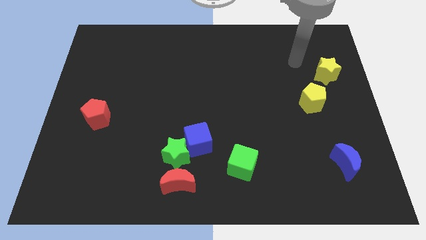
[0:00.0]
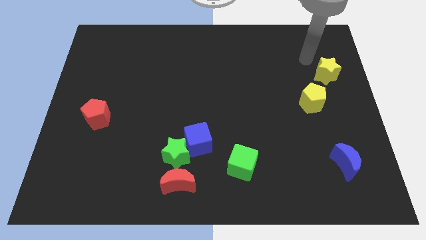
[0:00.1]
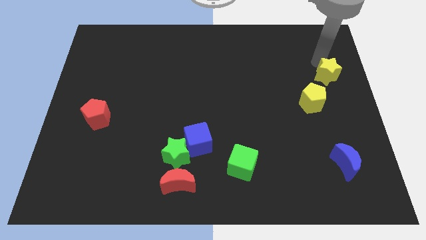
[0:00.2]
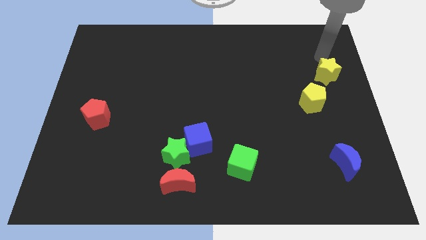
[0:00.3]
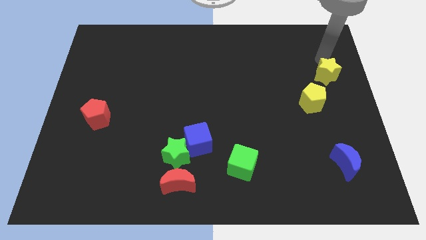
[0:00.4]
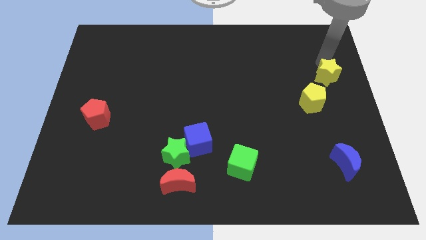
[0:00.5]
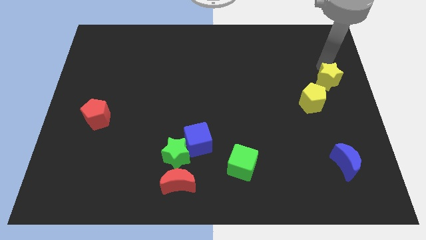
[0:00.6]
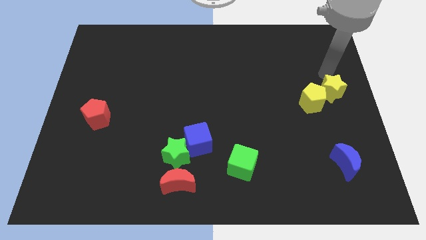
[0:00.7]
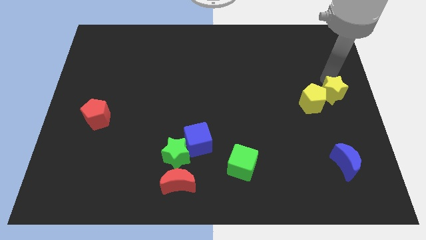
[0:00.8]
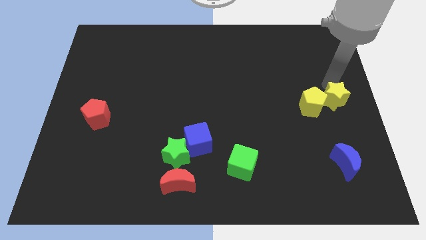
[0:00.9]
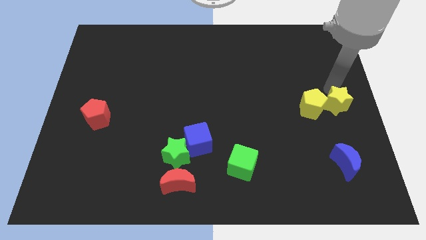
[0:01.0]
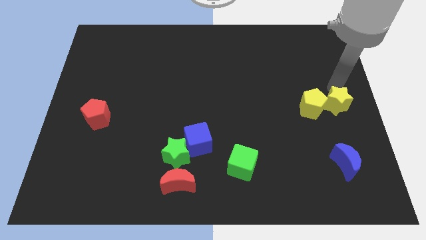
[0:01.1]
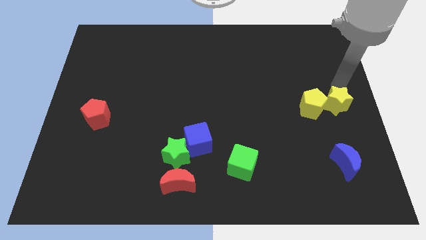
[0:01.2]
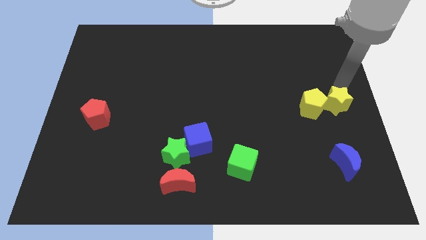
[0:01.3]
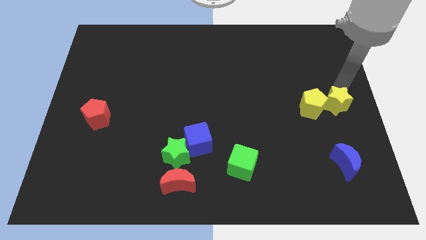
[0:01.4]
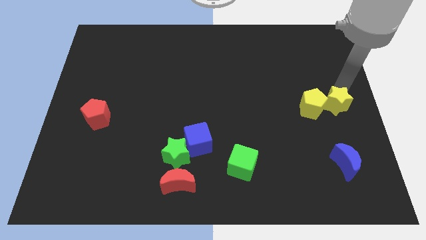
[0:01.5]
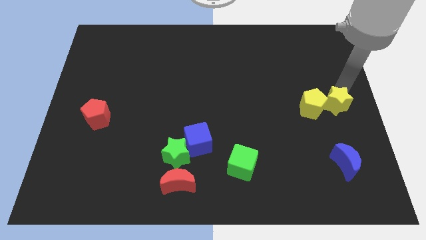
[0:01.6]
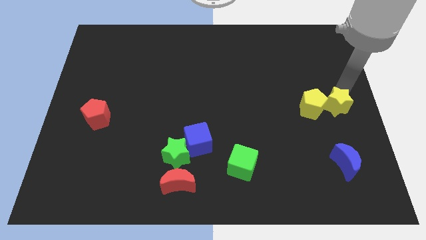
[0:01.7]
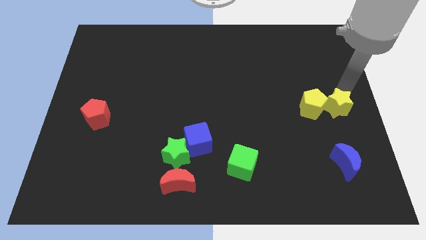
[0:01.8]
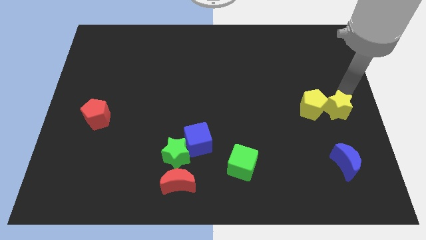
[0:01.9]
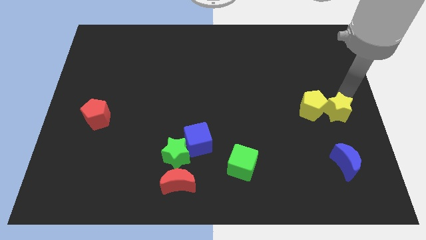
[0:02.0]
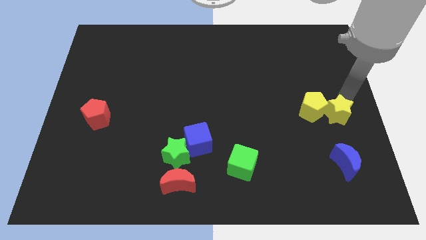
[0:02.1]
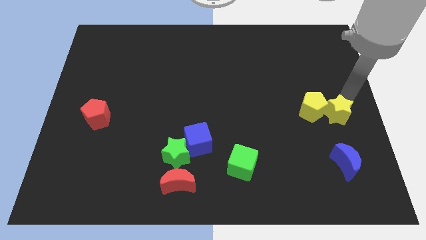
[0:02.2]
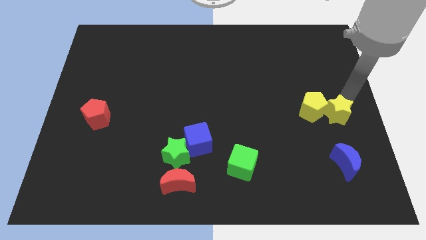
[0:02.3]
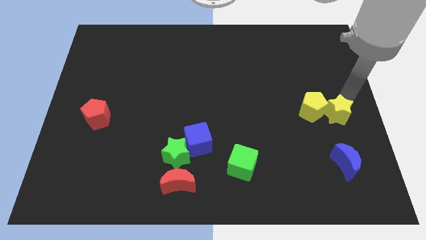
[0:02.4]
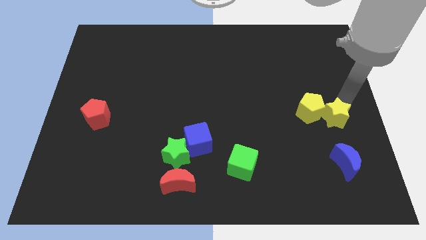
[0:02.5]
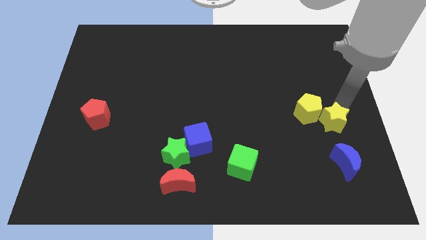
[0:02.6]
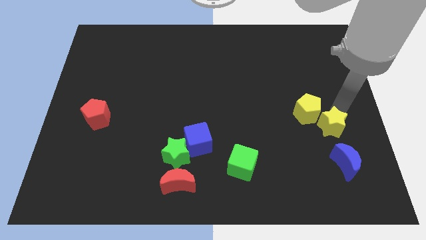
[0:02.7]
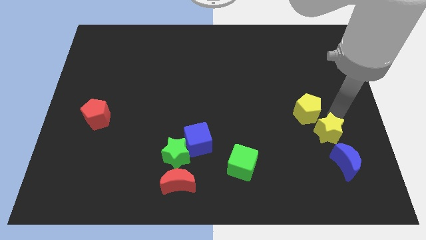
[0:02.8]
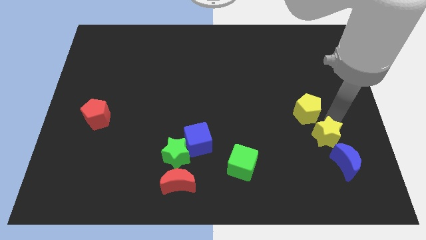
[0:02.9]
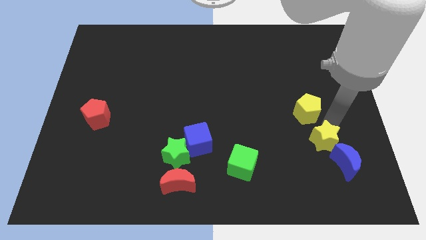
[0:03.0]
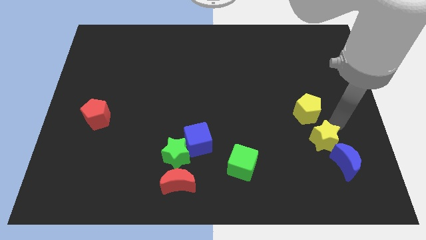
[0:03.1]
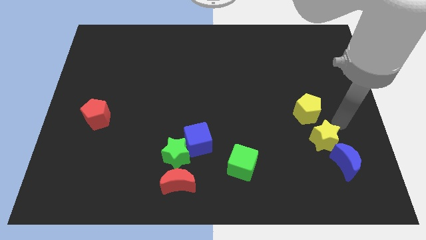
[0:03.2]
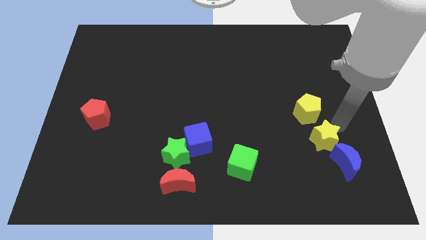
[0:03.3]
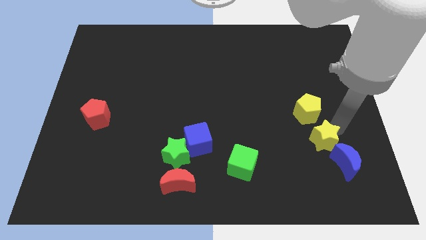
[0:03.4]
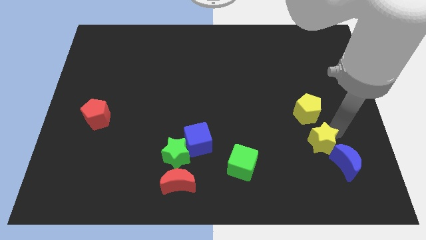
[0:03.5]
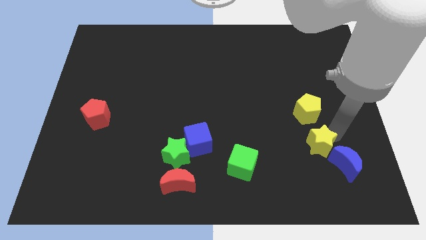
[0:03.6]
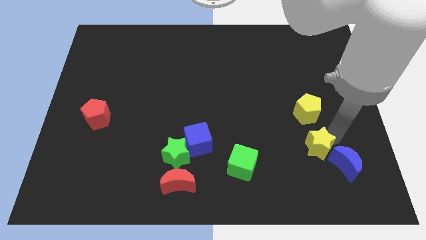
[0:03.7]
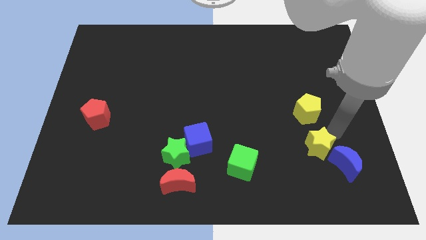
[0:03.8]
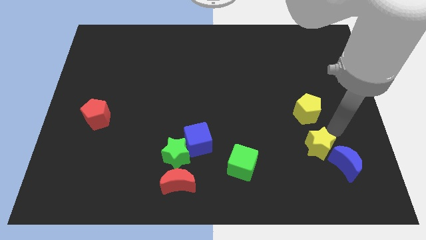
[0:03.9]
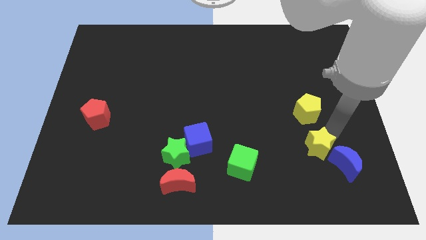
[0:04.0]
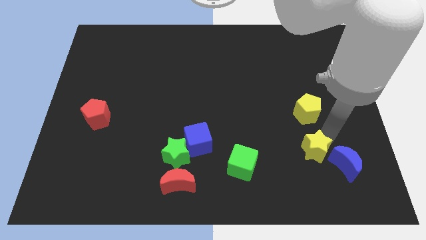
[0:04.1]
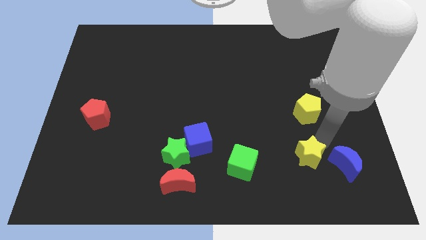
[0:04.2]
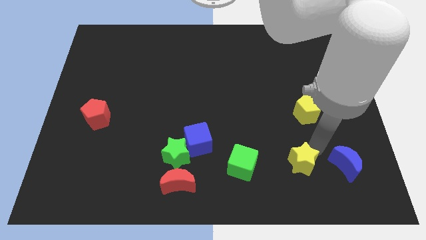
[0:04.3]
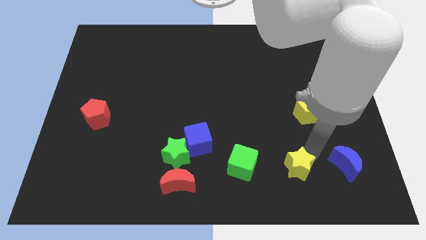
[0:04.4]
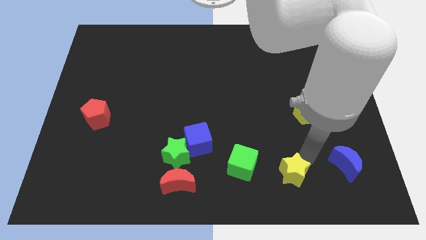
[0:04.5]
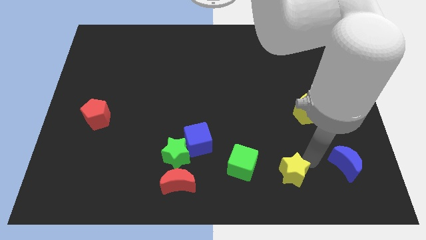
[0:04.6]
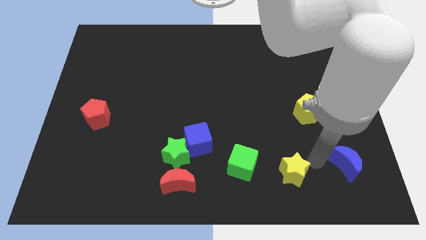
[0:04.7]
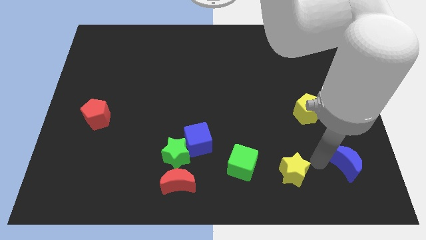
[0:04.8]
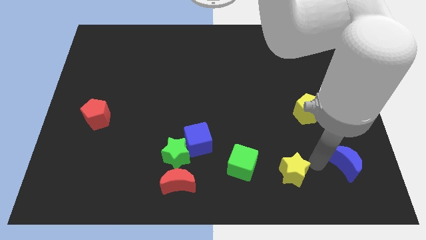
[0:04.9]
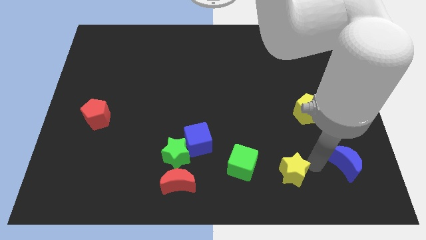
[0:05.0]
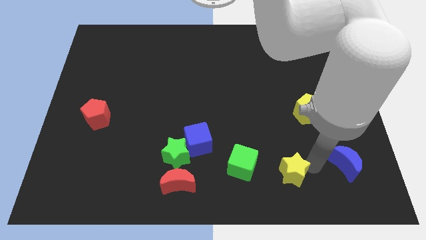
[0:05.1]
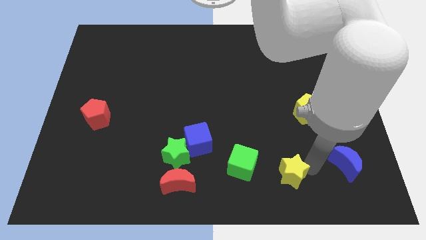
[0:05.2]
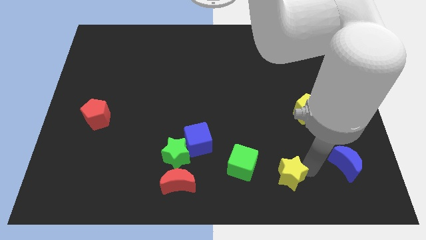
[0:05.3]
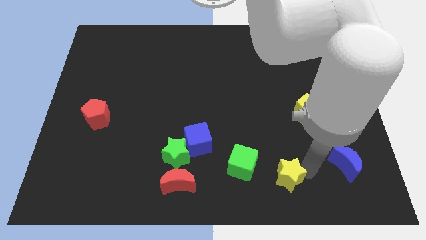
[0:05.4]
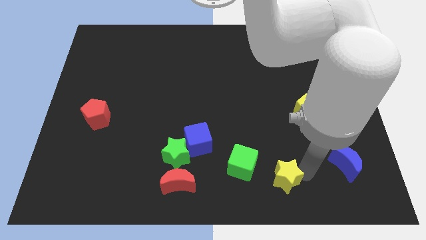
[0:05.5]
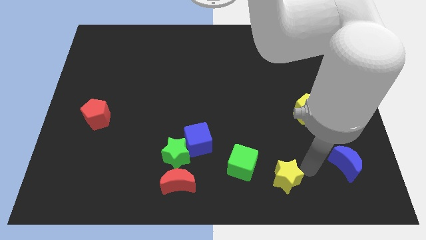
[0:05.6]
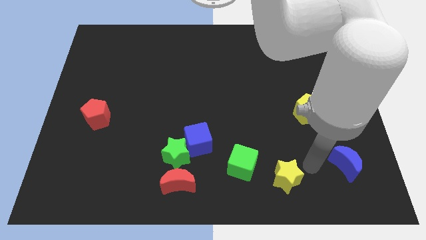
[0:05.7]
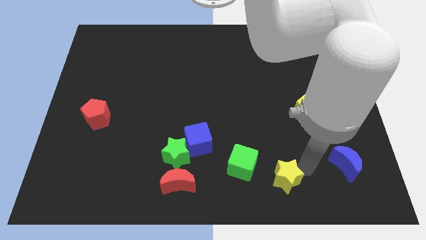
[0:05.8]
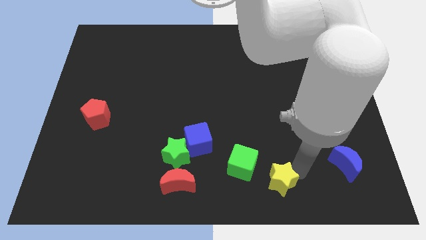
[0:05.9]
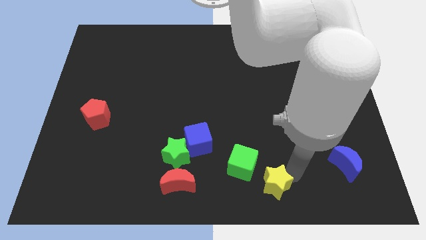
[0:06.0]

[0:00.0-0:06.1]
put the yellow star to the bottom side

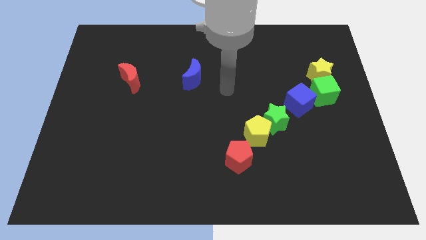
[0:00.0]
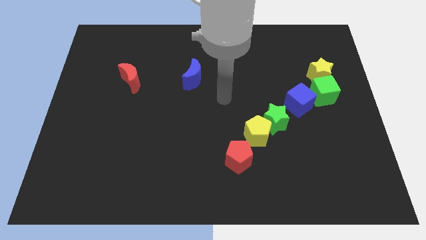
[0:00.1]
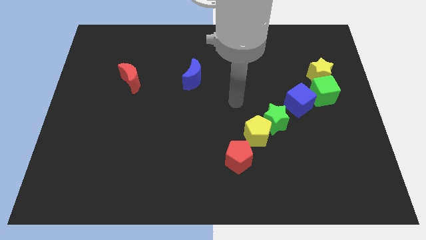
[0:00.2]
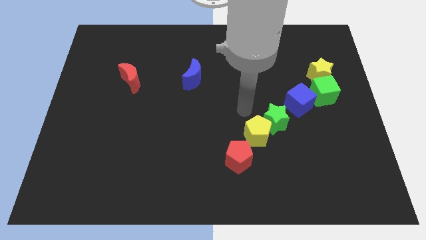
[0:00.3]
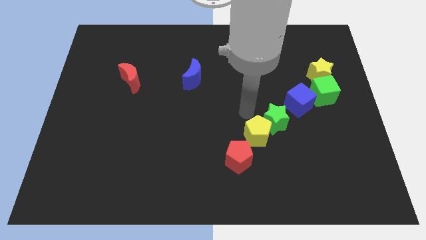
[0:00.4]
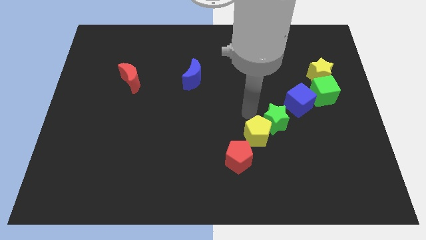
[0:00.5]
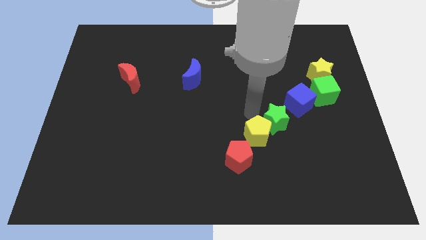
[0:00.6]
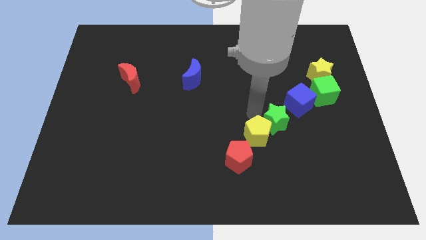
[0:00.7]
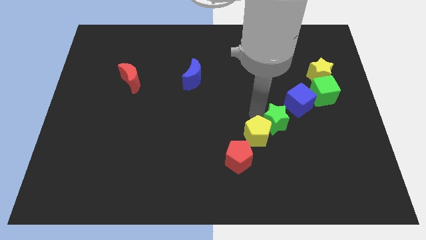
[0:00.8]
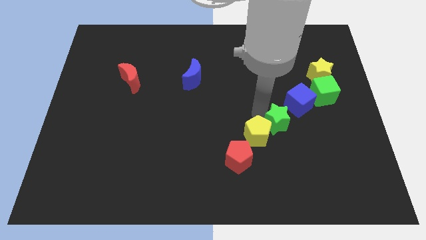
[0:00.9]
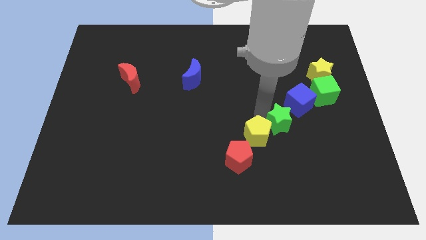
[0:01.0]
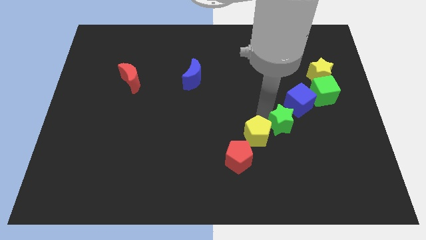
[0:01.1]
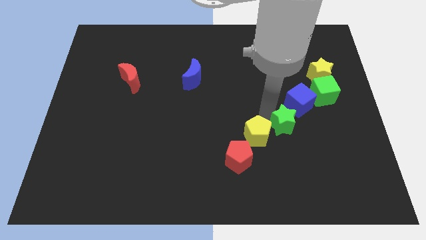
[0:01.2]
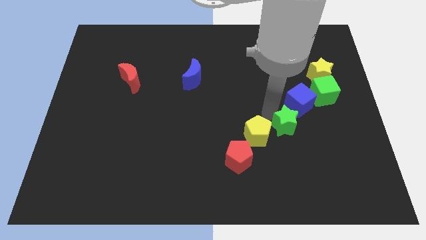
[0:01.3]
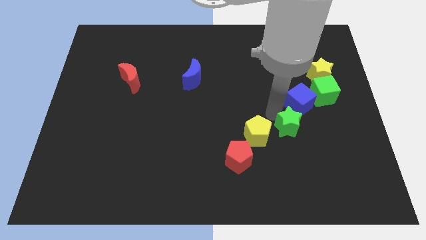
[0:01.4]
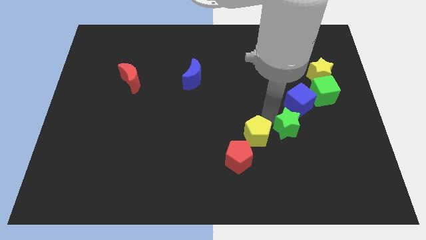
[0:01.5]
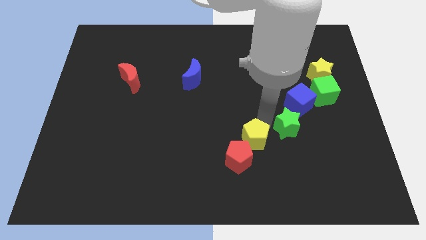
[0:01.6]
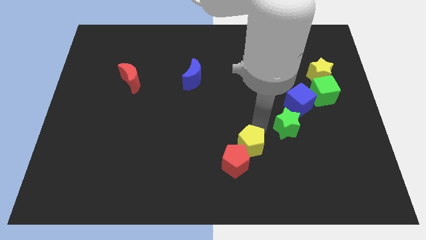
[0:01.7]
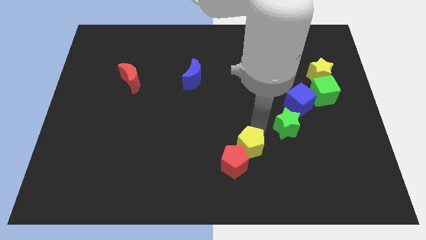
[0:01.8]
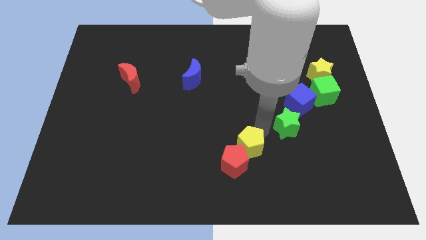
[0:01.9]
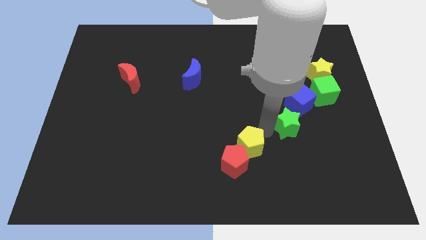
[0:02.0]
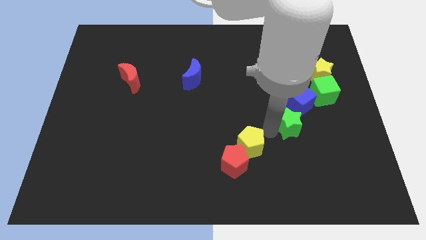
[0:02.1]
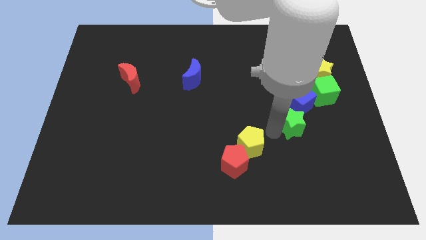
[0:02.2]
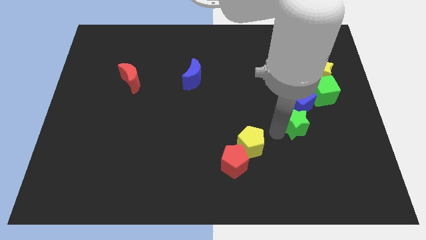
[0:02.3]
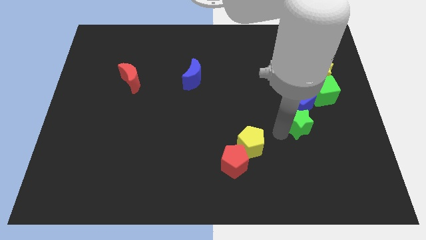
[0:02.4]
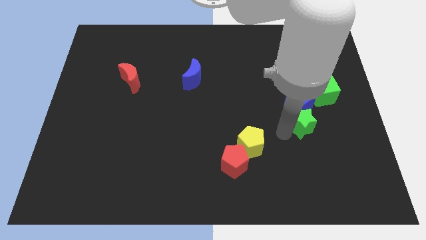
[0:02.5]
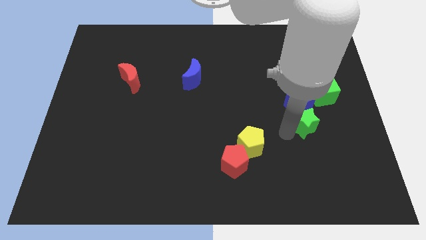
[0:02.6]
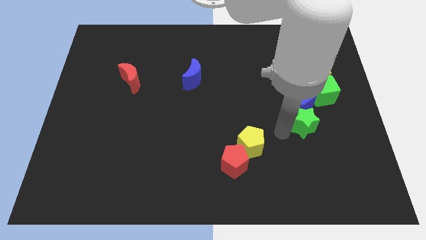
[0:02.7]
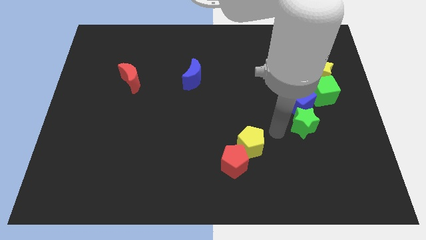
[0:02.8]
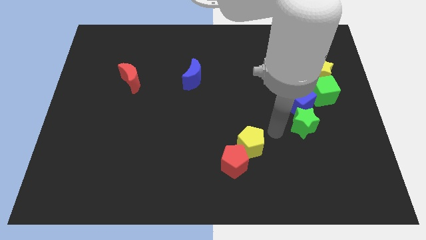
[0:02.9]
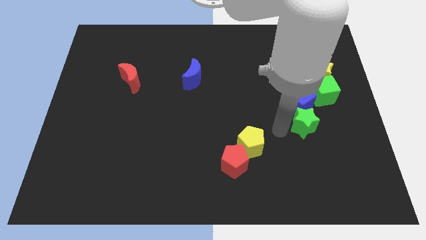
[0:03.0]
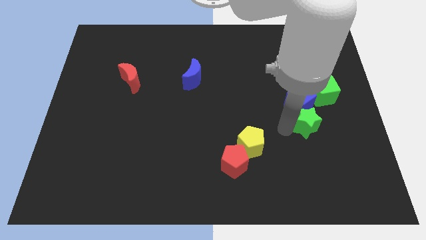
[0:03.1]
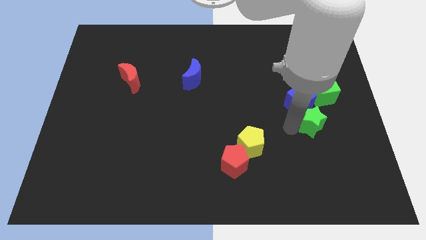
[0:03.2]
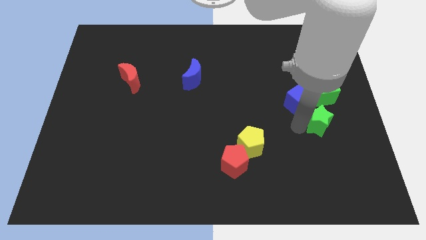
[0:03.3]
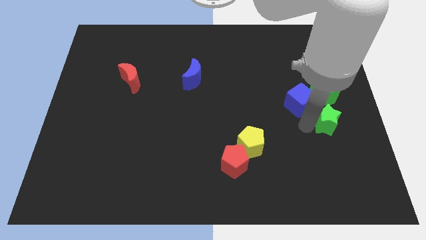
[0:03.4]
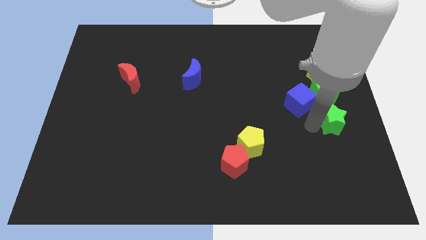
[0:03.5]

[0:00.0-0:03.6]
slide the green star to the right side of the board
